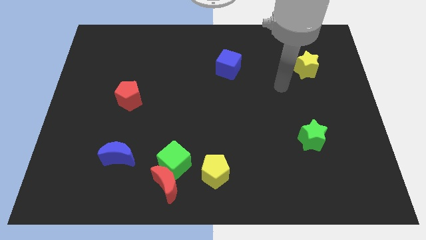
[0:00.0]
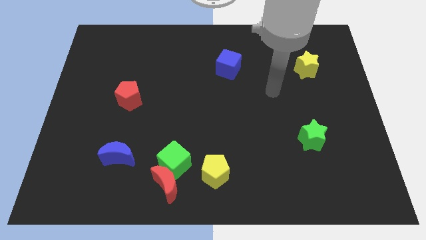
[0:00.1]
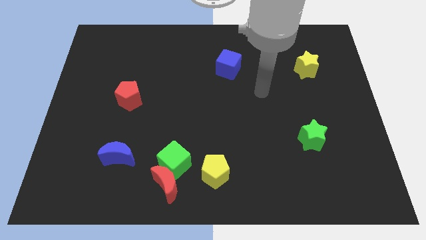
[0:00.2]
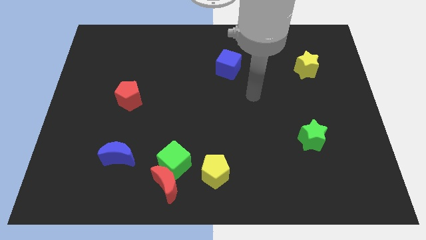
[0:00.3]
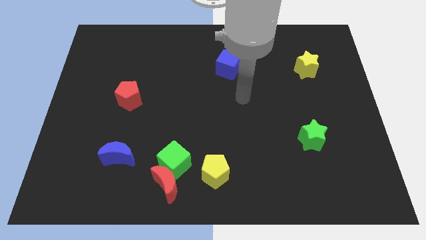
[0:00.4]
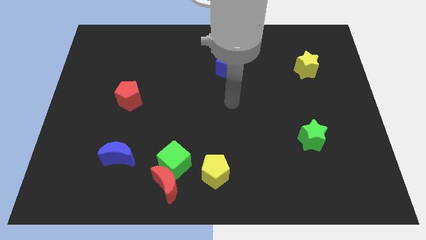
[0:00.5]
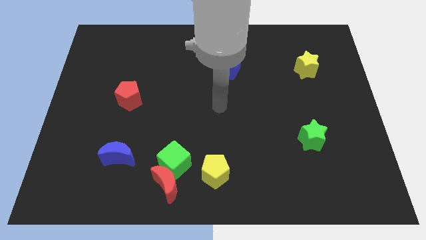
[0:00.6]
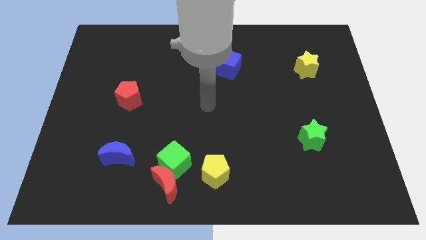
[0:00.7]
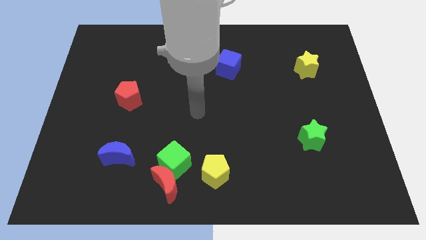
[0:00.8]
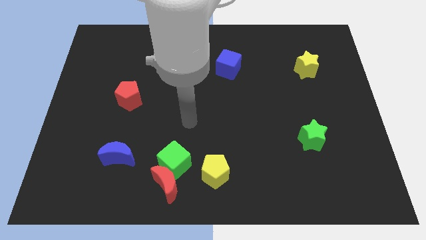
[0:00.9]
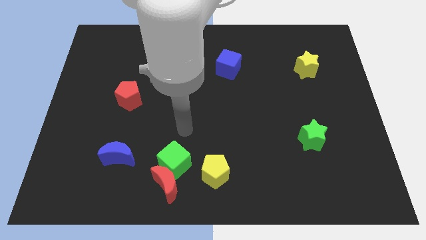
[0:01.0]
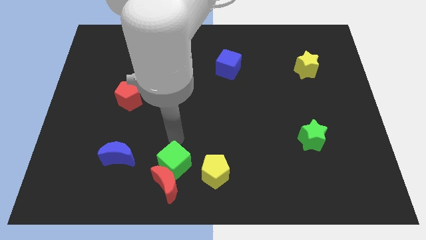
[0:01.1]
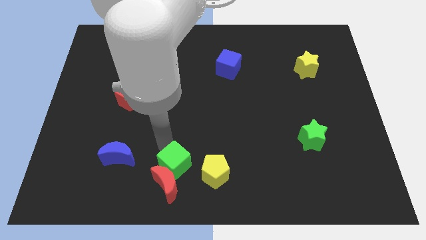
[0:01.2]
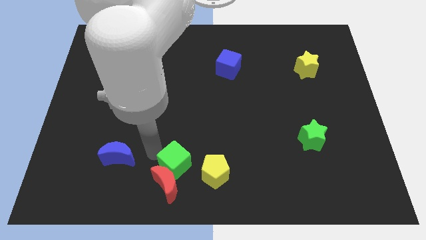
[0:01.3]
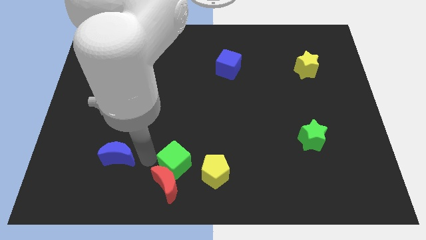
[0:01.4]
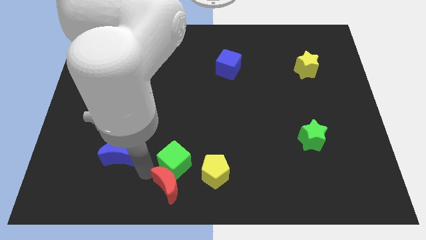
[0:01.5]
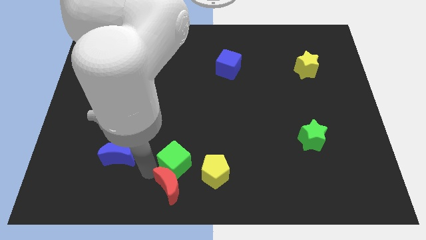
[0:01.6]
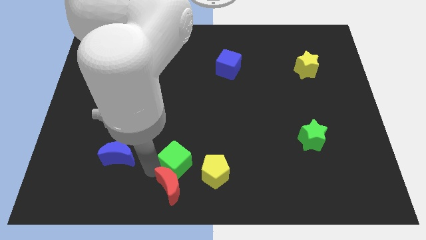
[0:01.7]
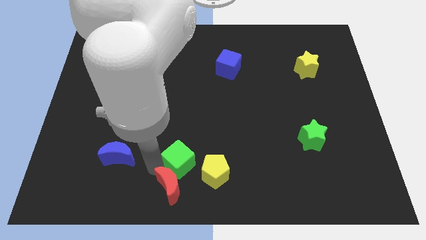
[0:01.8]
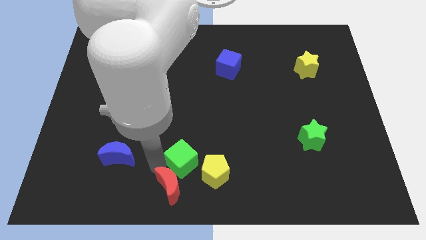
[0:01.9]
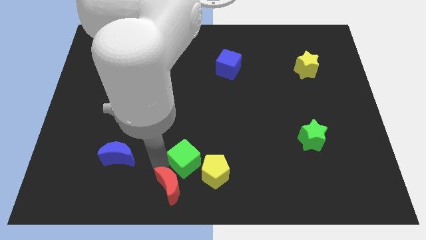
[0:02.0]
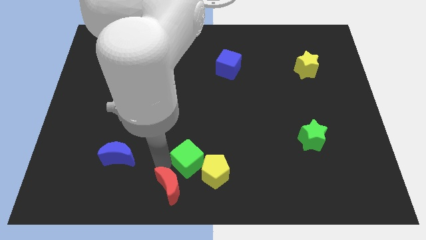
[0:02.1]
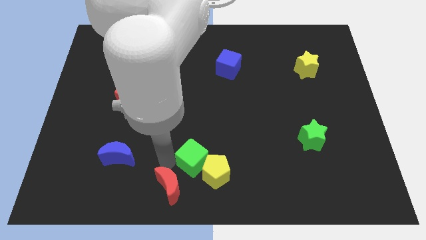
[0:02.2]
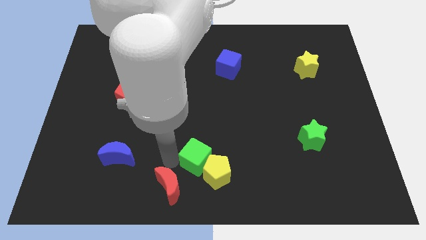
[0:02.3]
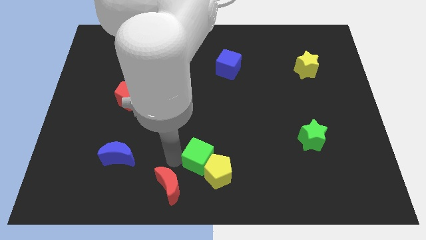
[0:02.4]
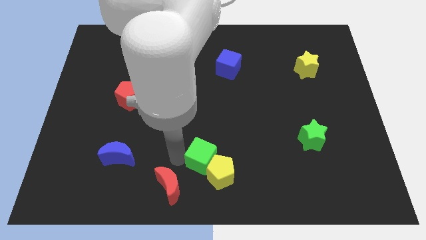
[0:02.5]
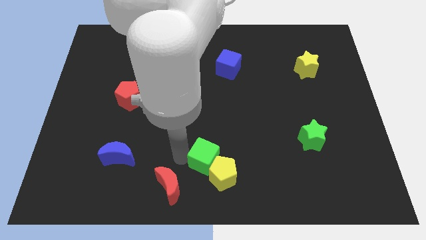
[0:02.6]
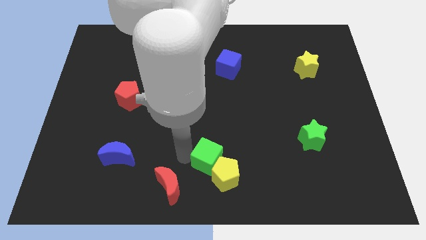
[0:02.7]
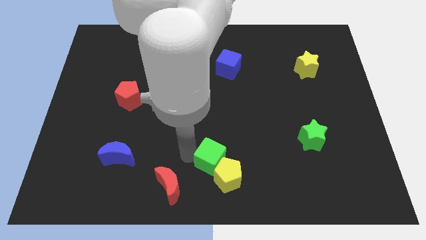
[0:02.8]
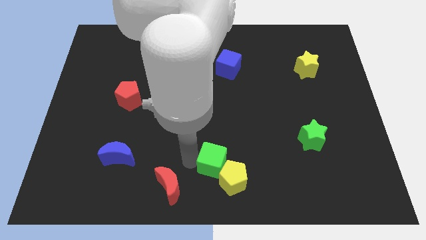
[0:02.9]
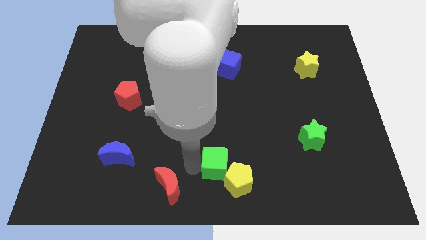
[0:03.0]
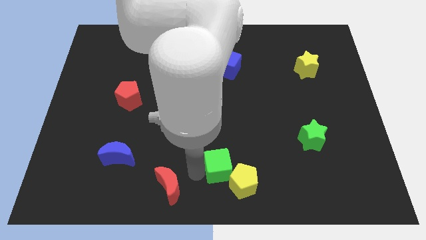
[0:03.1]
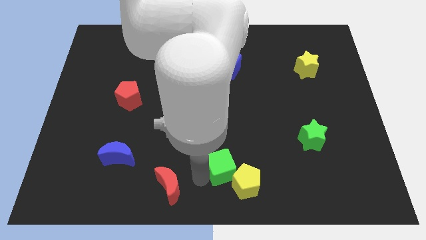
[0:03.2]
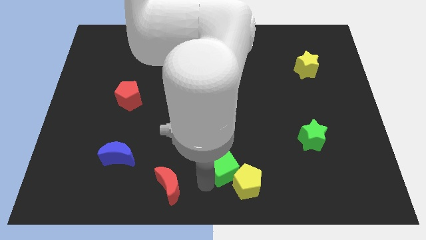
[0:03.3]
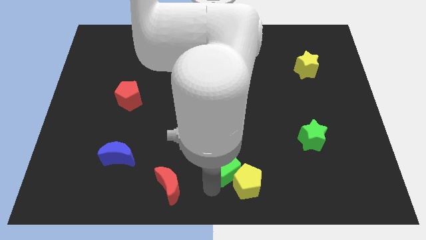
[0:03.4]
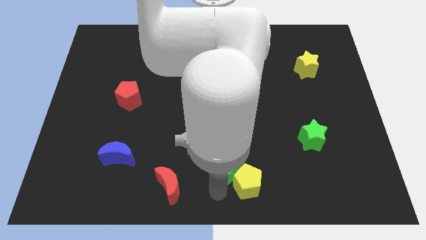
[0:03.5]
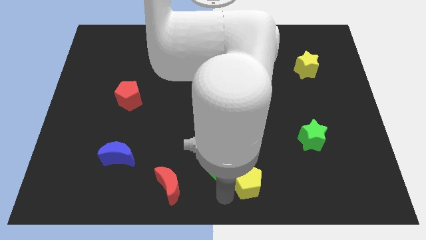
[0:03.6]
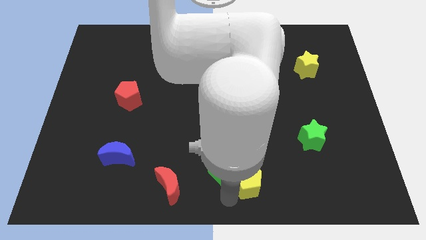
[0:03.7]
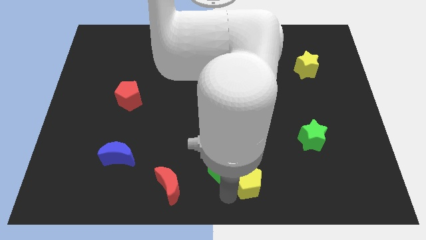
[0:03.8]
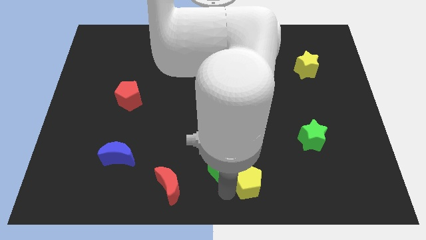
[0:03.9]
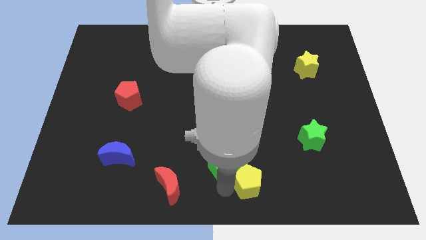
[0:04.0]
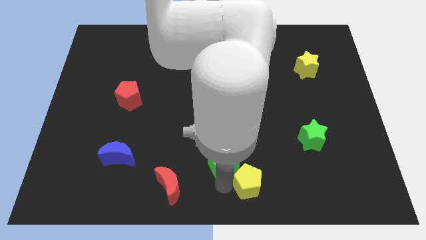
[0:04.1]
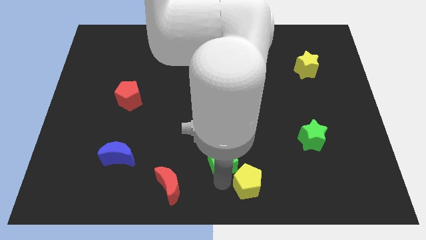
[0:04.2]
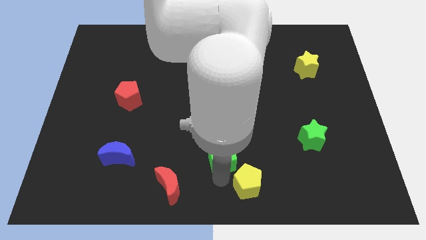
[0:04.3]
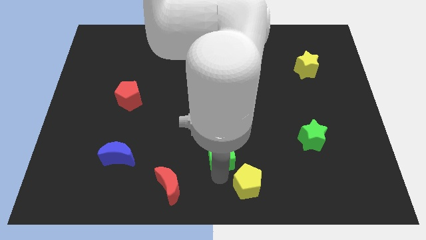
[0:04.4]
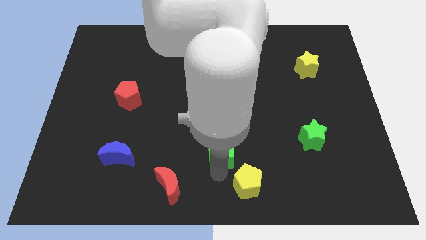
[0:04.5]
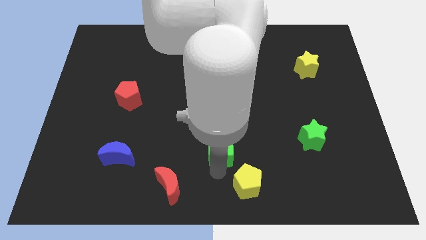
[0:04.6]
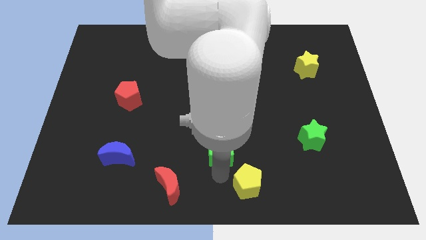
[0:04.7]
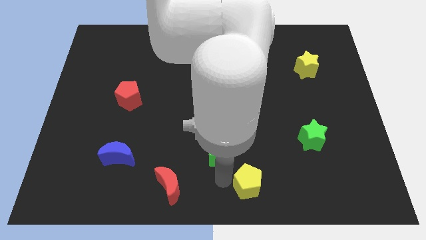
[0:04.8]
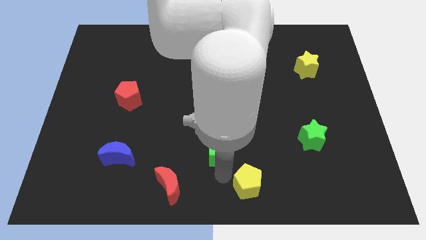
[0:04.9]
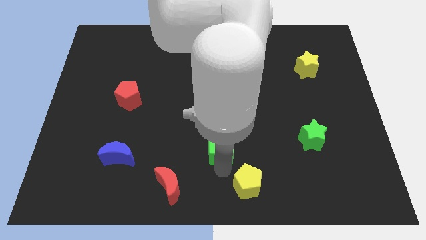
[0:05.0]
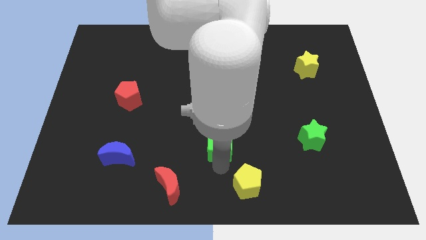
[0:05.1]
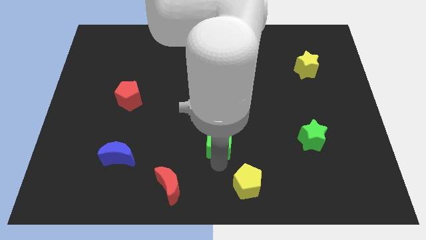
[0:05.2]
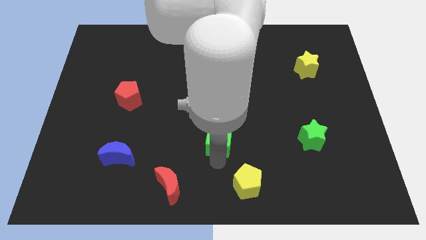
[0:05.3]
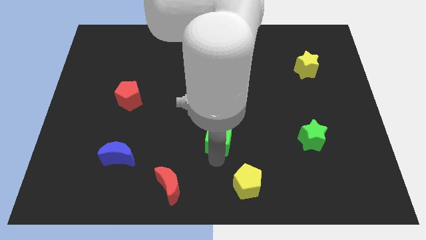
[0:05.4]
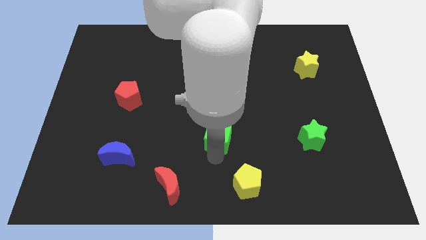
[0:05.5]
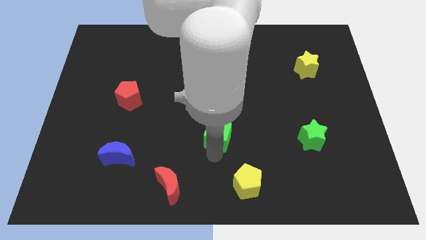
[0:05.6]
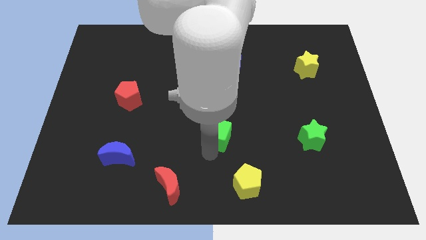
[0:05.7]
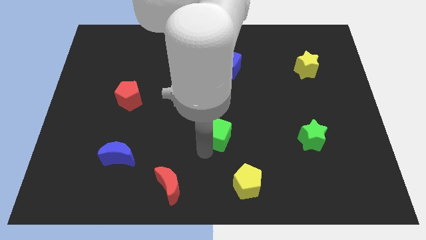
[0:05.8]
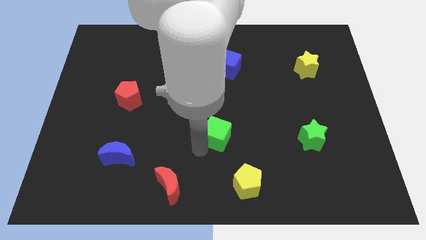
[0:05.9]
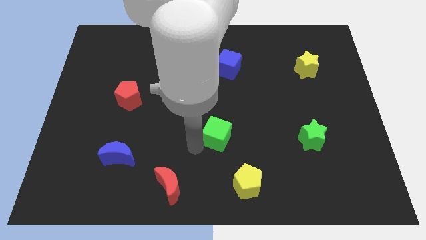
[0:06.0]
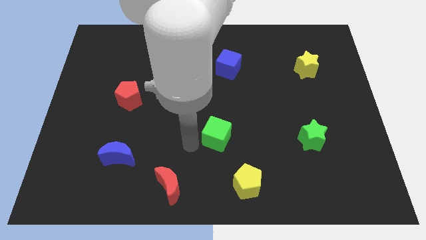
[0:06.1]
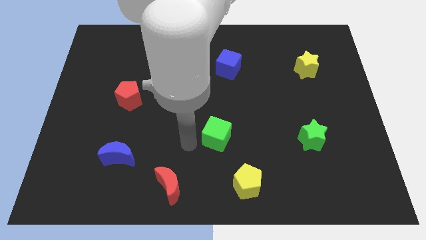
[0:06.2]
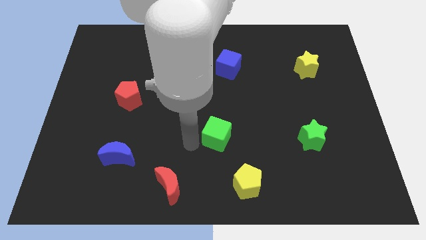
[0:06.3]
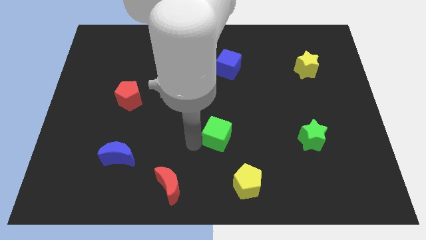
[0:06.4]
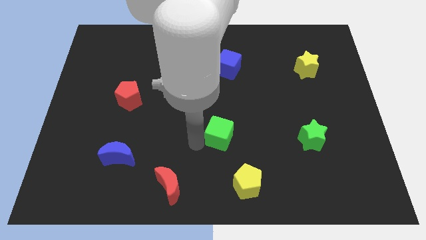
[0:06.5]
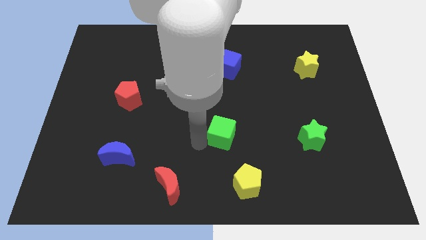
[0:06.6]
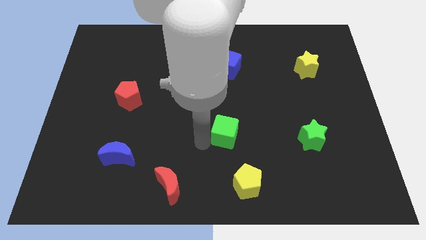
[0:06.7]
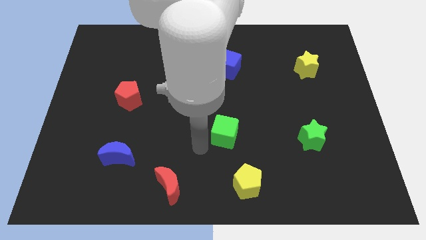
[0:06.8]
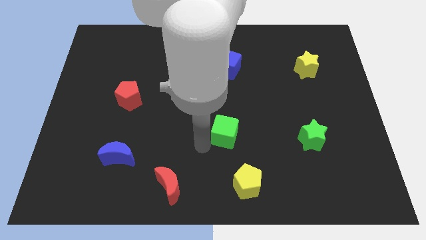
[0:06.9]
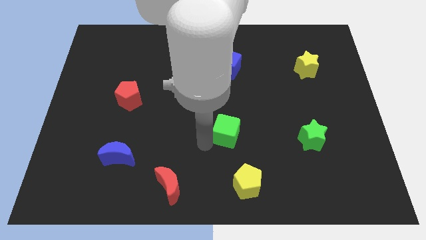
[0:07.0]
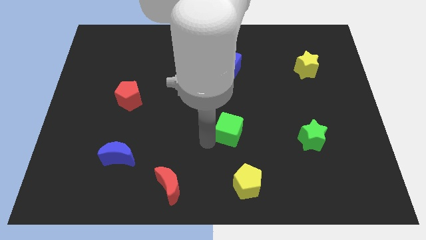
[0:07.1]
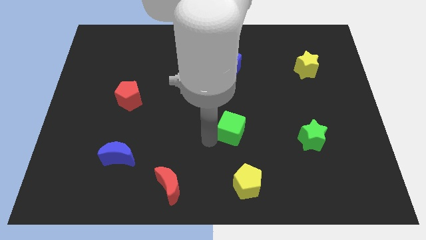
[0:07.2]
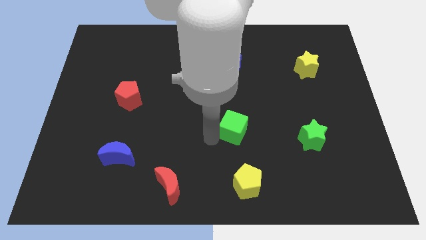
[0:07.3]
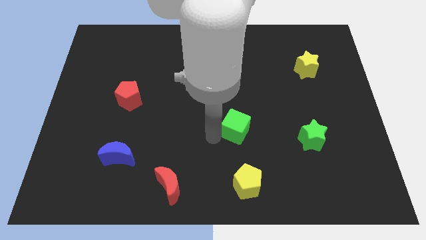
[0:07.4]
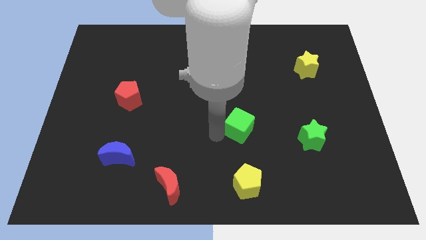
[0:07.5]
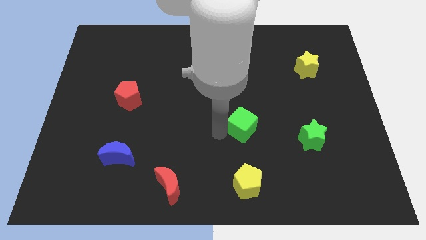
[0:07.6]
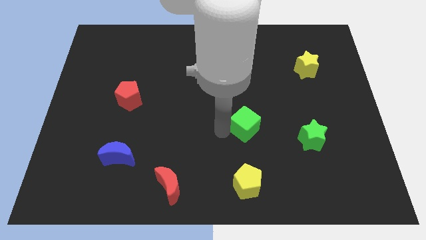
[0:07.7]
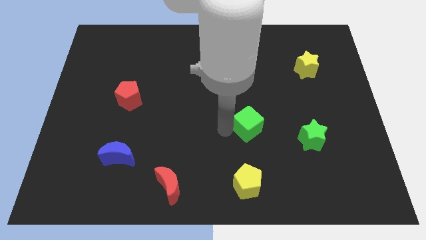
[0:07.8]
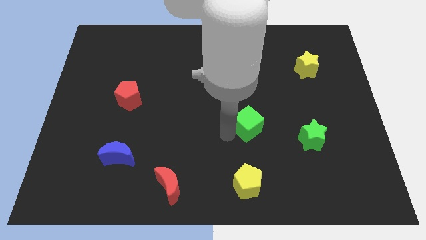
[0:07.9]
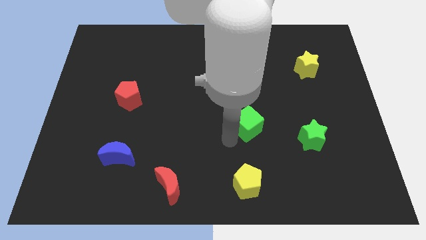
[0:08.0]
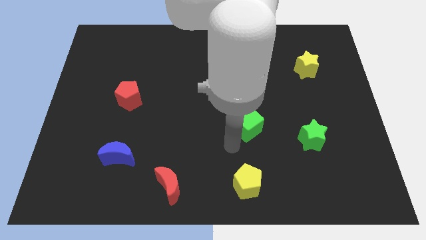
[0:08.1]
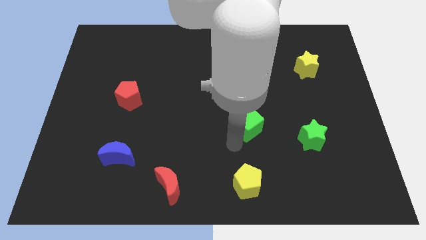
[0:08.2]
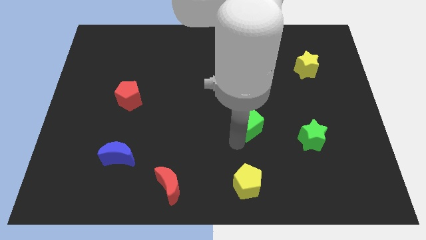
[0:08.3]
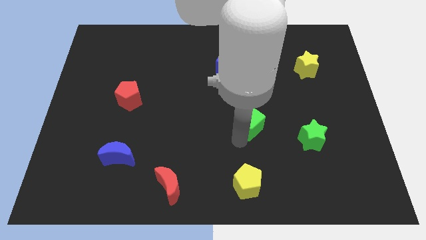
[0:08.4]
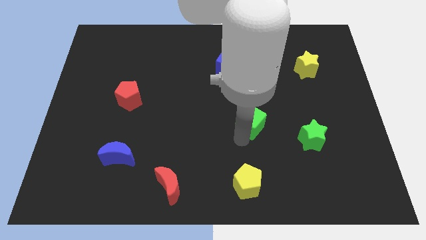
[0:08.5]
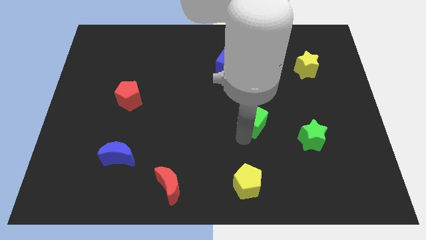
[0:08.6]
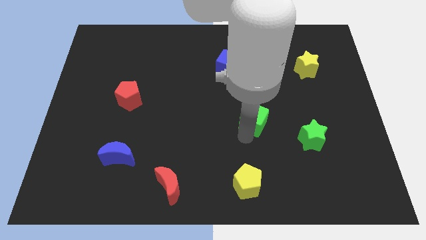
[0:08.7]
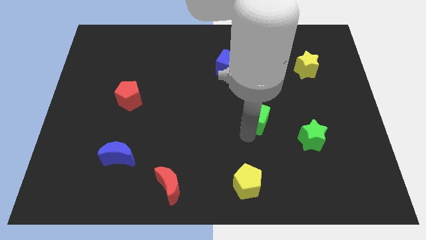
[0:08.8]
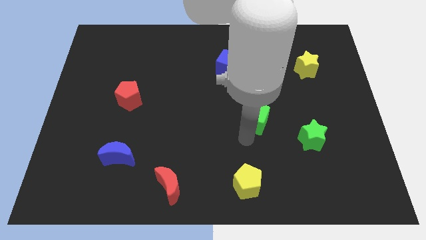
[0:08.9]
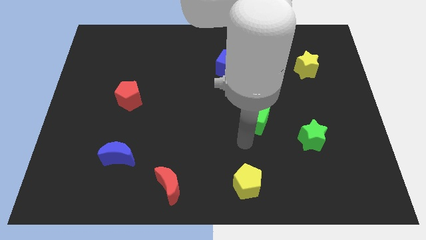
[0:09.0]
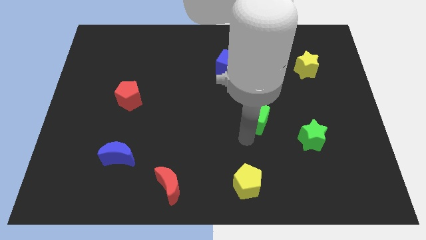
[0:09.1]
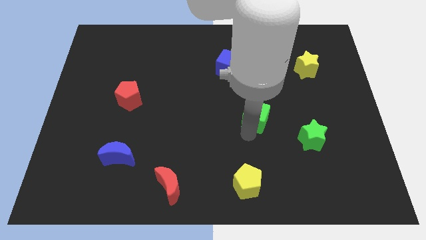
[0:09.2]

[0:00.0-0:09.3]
slide the green cube up and to the right diagonally
